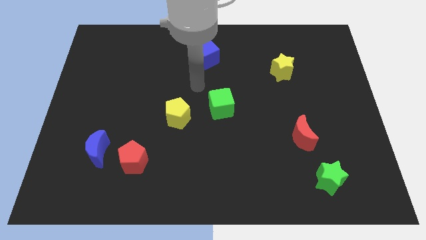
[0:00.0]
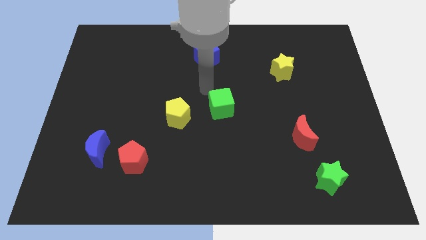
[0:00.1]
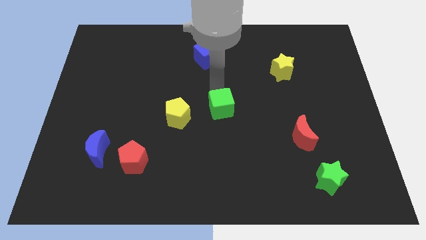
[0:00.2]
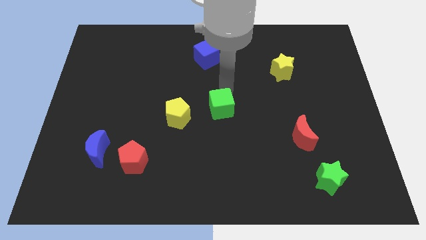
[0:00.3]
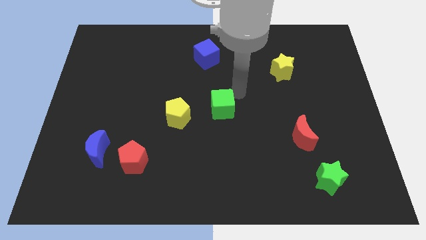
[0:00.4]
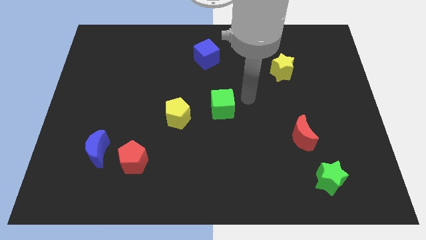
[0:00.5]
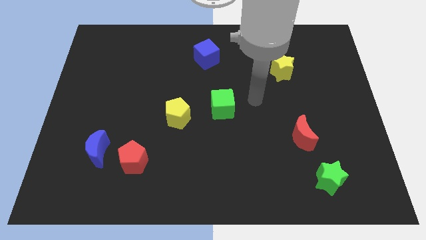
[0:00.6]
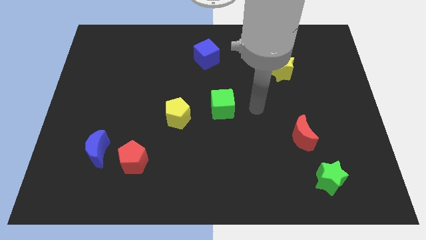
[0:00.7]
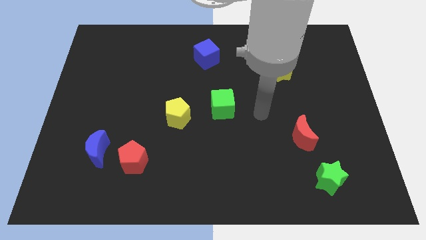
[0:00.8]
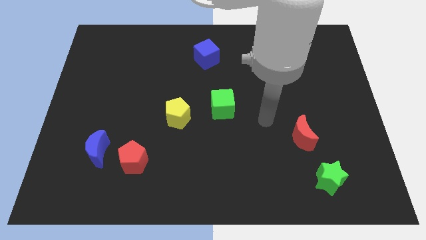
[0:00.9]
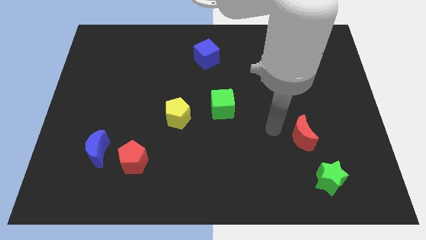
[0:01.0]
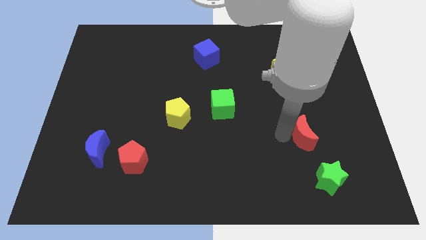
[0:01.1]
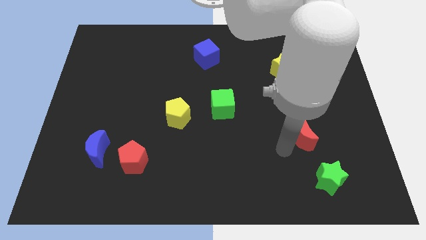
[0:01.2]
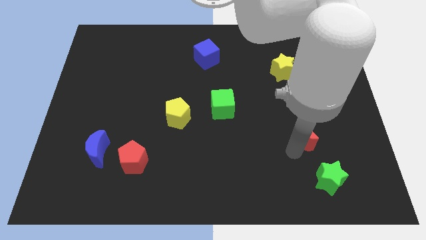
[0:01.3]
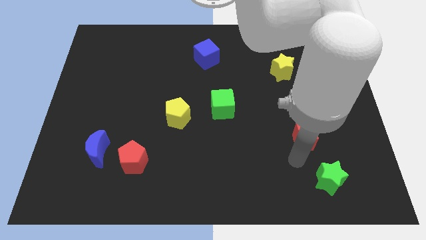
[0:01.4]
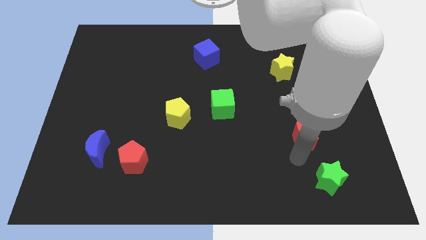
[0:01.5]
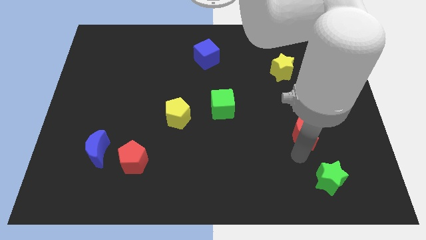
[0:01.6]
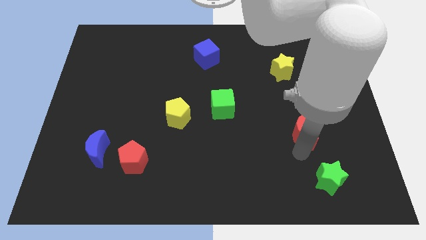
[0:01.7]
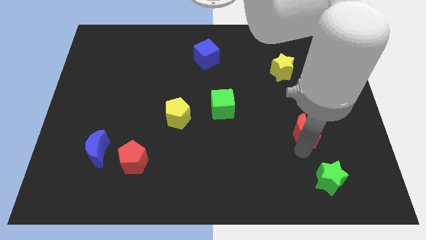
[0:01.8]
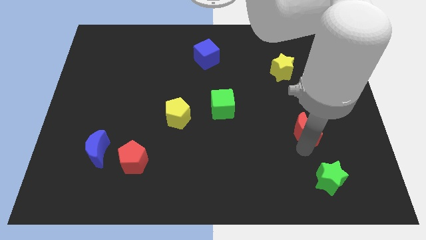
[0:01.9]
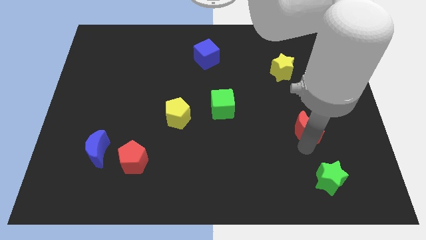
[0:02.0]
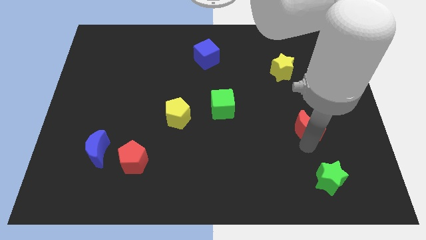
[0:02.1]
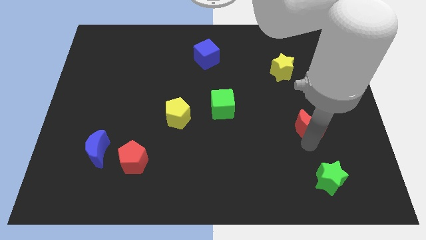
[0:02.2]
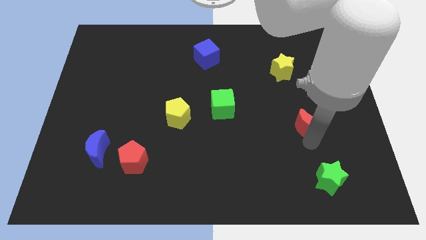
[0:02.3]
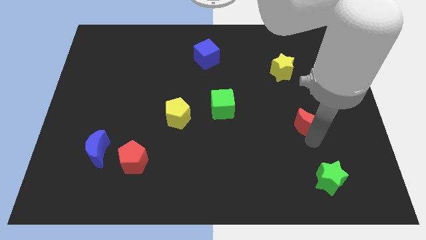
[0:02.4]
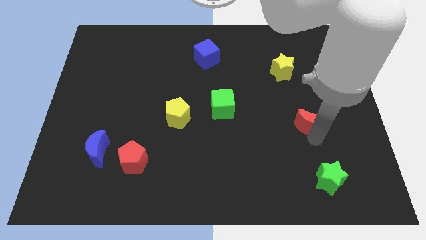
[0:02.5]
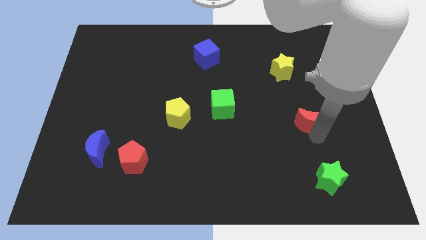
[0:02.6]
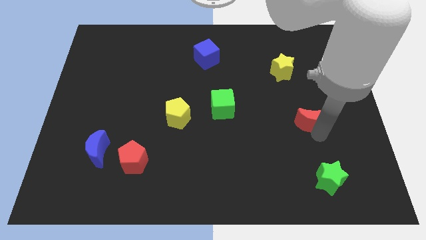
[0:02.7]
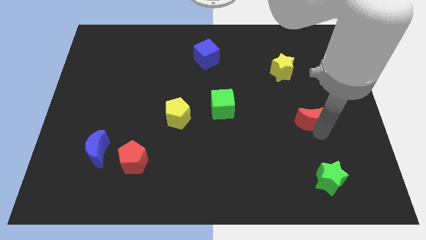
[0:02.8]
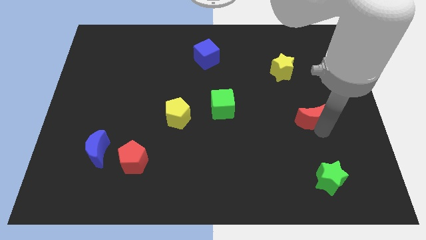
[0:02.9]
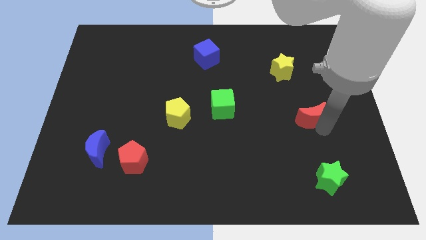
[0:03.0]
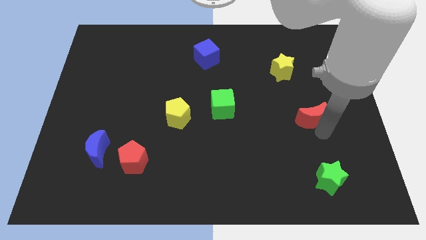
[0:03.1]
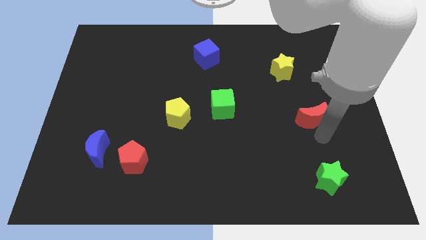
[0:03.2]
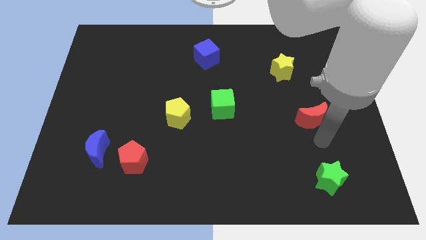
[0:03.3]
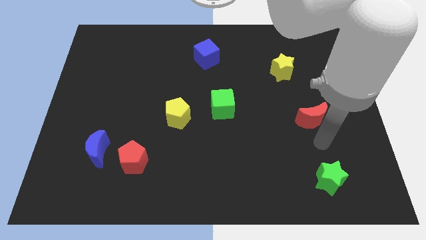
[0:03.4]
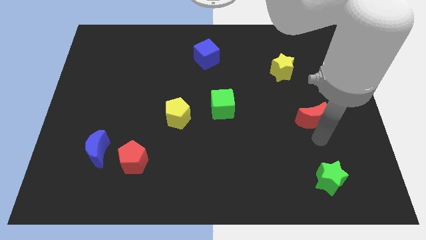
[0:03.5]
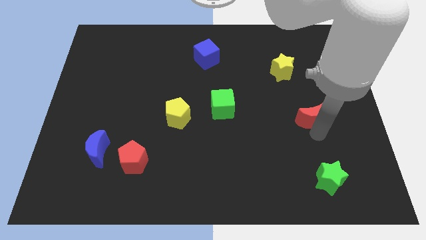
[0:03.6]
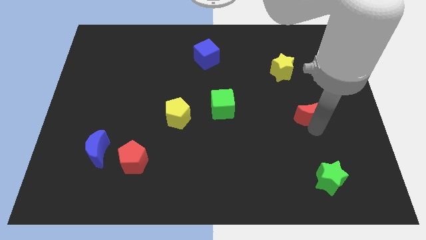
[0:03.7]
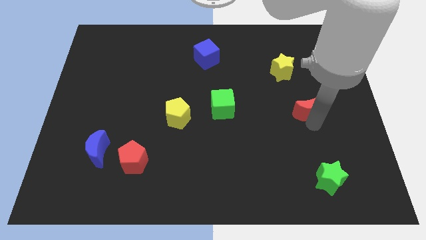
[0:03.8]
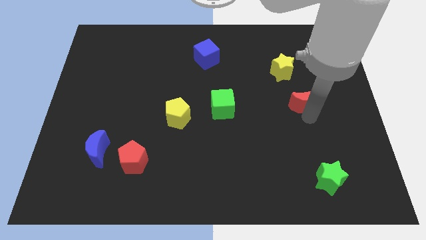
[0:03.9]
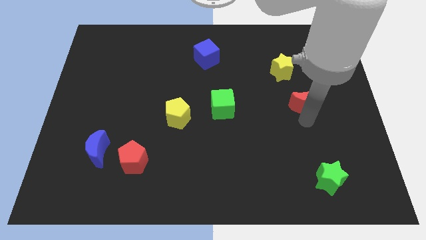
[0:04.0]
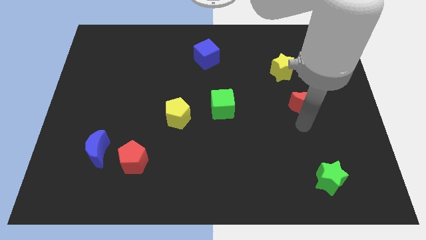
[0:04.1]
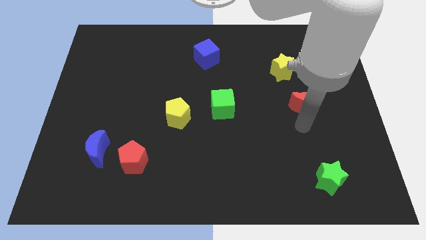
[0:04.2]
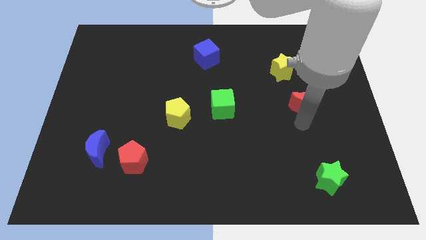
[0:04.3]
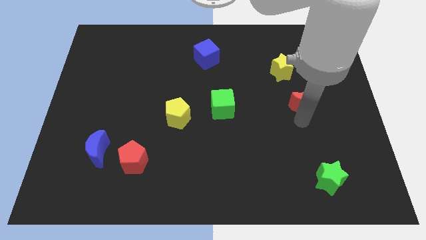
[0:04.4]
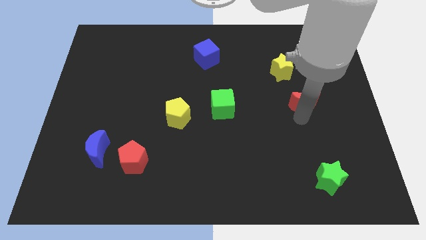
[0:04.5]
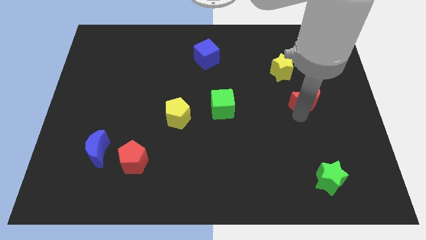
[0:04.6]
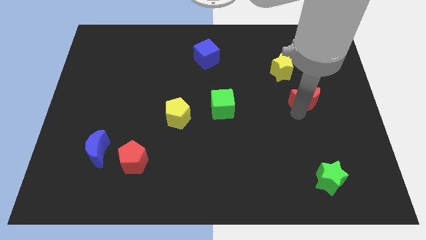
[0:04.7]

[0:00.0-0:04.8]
slide the red moon to the bottom right of the yellow star

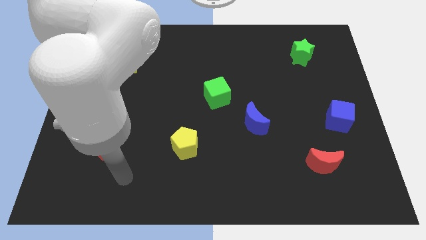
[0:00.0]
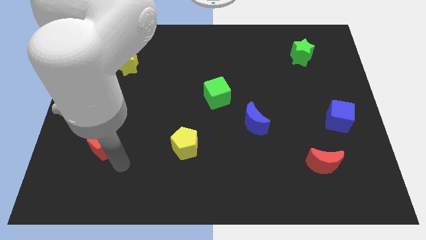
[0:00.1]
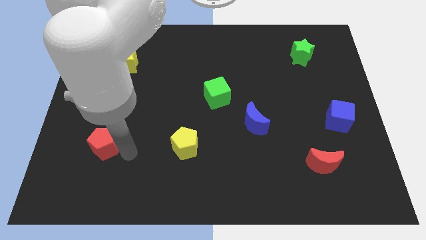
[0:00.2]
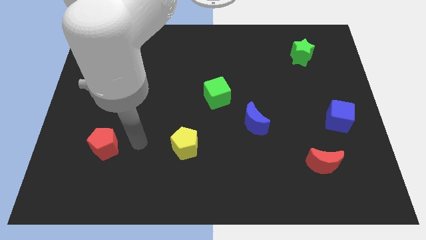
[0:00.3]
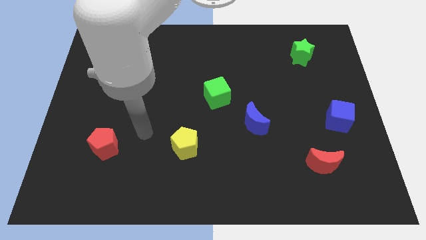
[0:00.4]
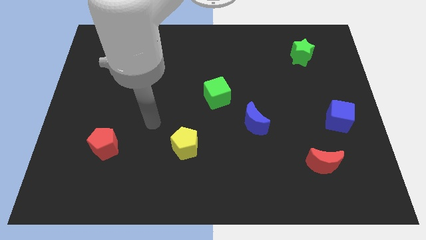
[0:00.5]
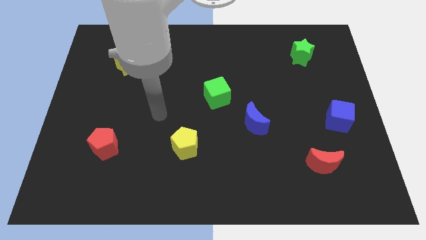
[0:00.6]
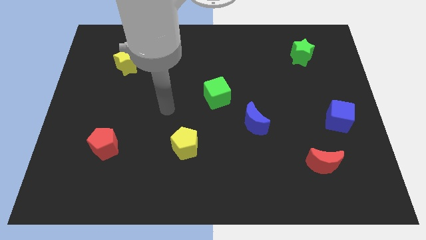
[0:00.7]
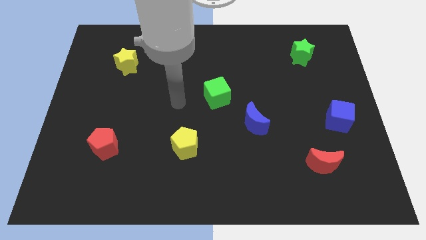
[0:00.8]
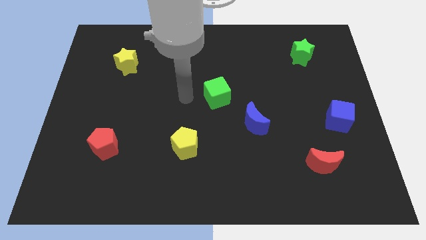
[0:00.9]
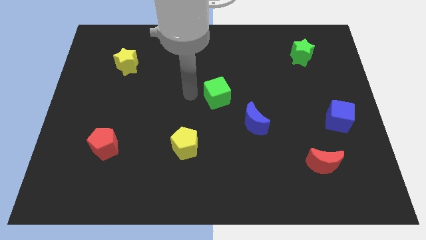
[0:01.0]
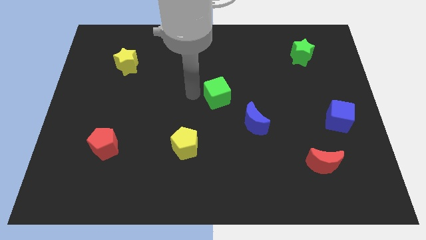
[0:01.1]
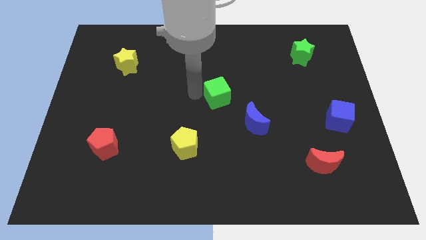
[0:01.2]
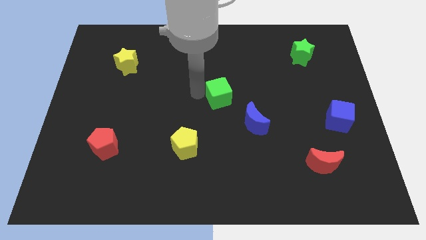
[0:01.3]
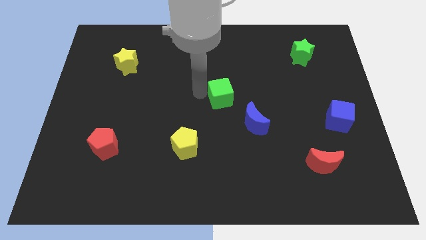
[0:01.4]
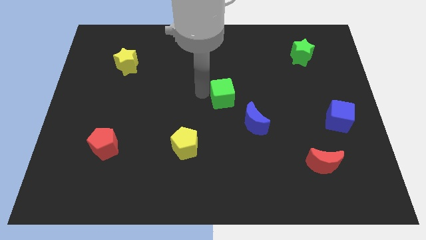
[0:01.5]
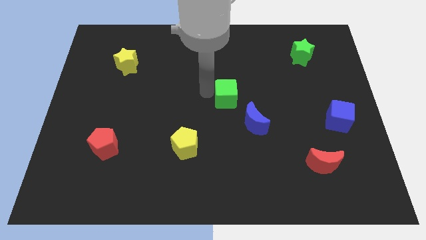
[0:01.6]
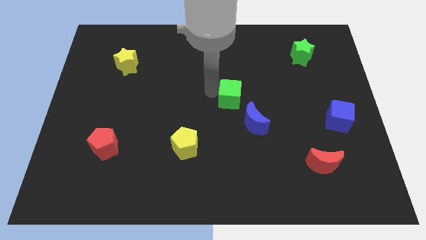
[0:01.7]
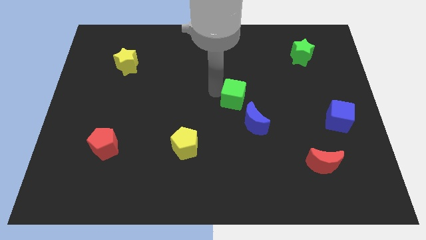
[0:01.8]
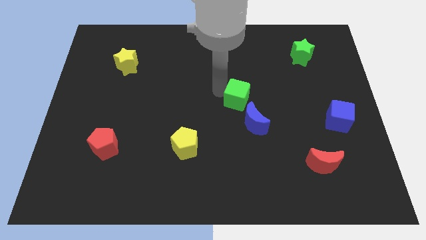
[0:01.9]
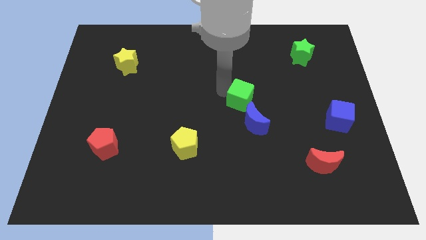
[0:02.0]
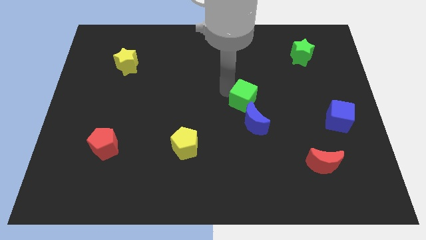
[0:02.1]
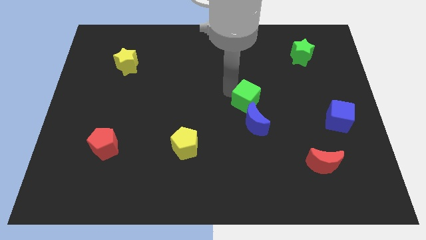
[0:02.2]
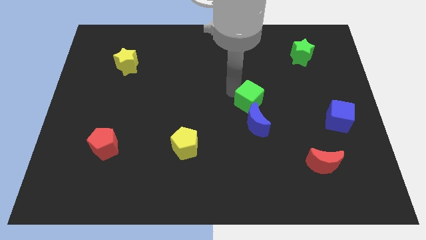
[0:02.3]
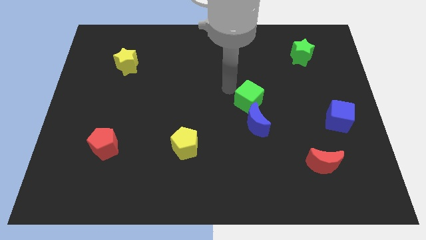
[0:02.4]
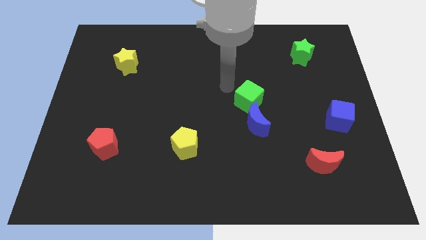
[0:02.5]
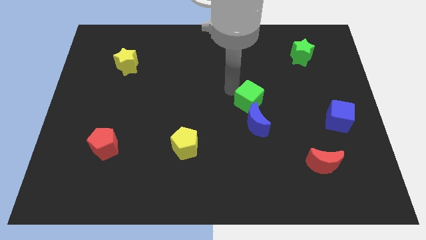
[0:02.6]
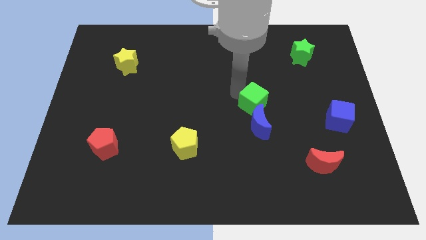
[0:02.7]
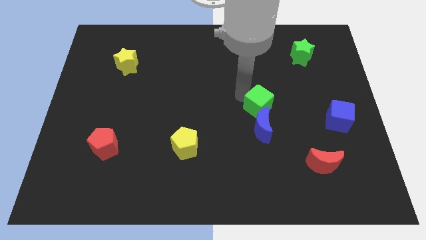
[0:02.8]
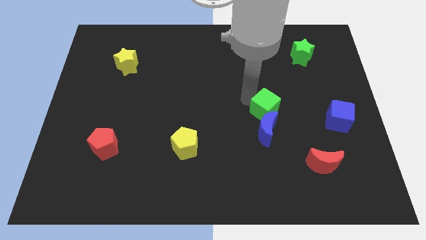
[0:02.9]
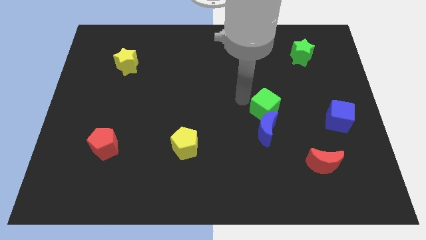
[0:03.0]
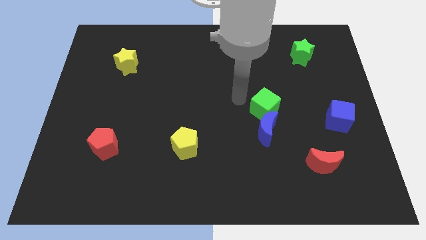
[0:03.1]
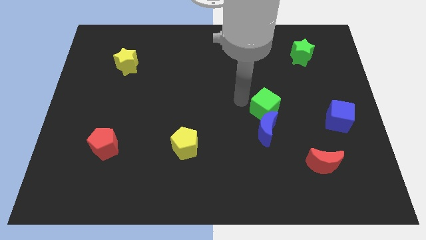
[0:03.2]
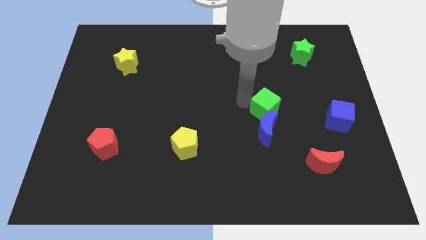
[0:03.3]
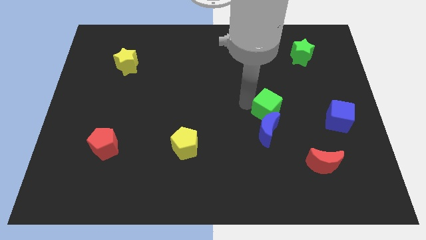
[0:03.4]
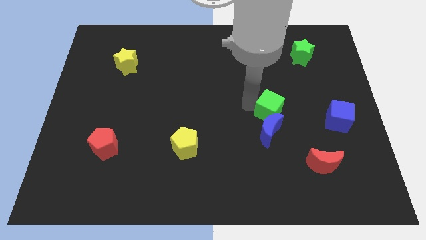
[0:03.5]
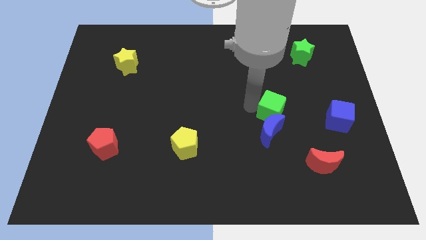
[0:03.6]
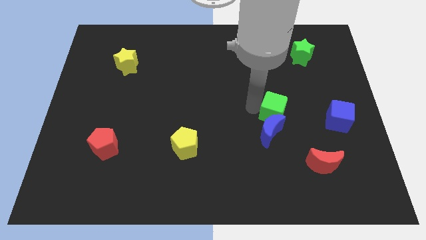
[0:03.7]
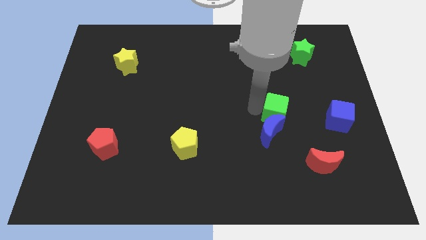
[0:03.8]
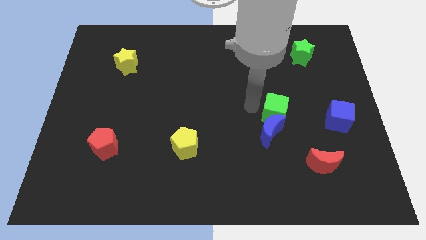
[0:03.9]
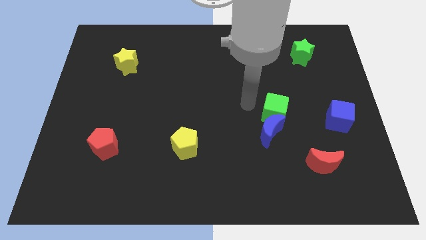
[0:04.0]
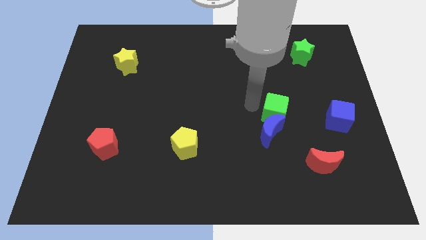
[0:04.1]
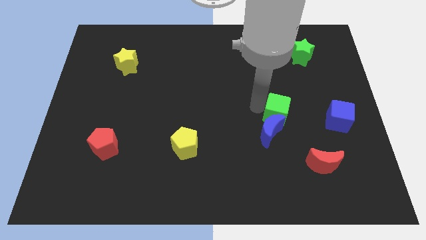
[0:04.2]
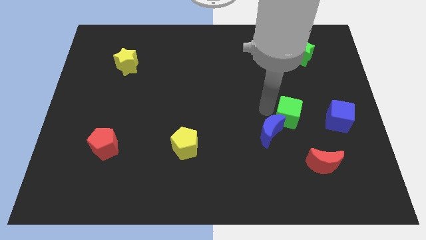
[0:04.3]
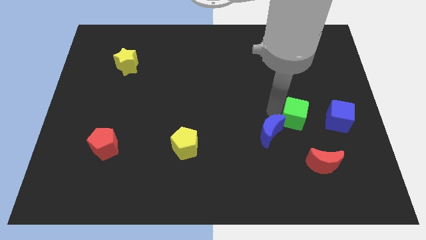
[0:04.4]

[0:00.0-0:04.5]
push the green cube to the top side of the red moon
